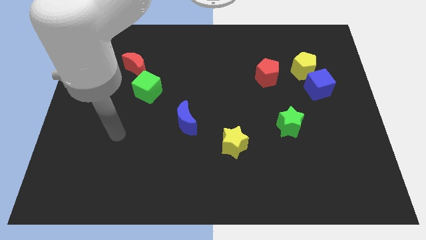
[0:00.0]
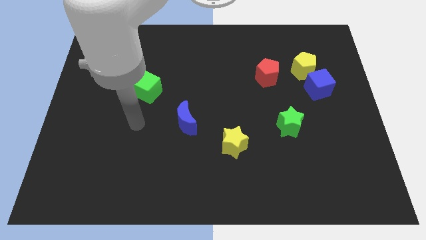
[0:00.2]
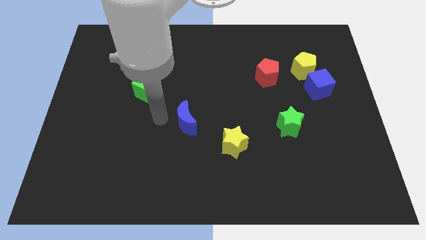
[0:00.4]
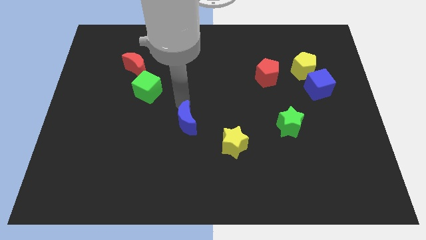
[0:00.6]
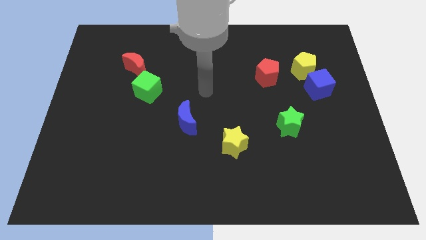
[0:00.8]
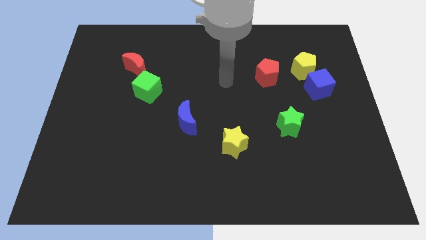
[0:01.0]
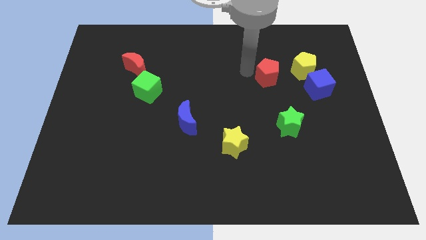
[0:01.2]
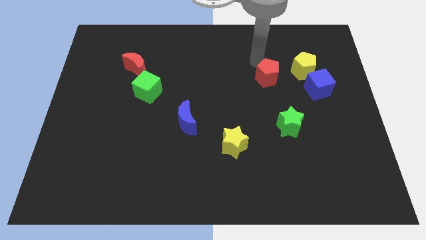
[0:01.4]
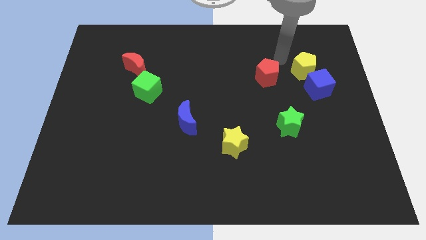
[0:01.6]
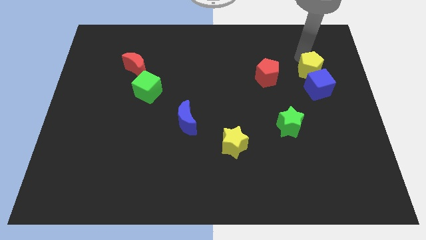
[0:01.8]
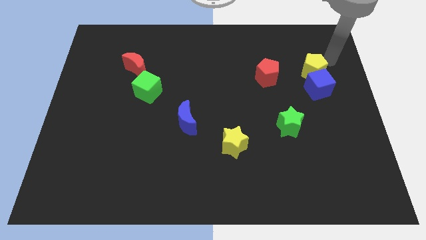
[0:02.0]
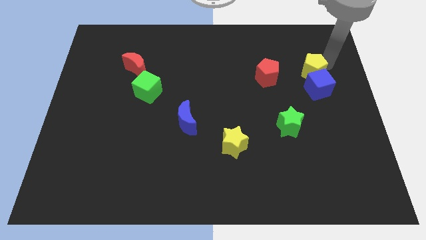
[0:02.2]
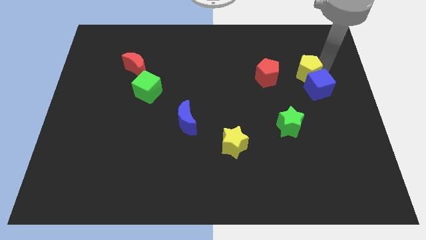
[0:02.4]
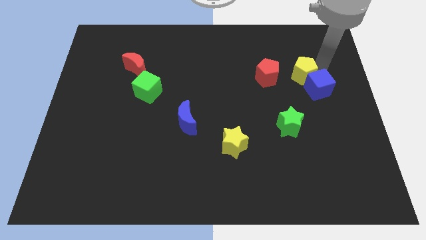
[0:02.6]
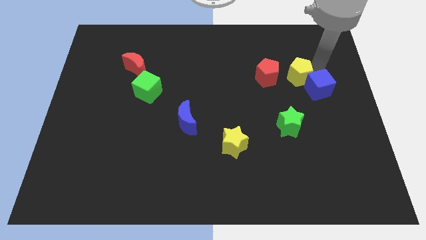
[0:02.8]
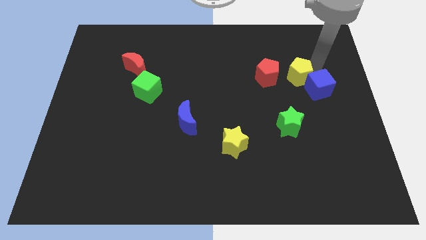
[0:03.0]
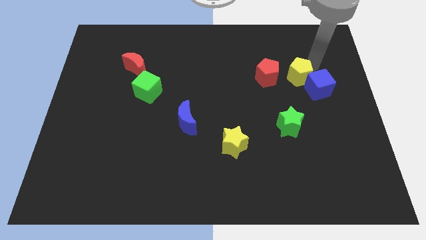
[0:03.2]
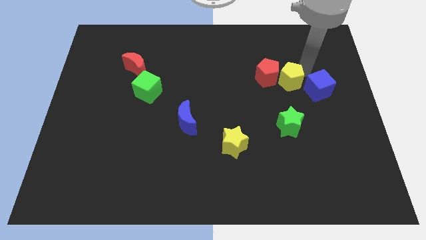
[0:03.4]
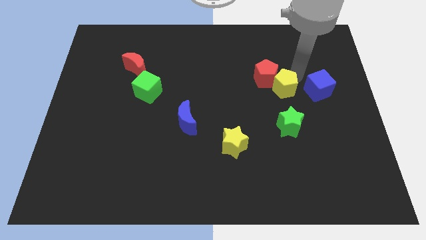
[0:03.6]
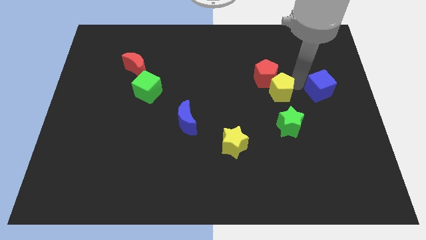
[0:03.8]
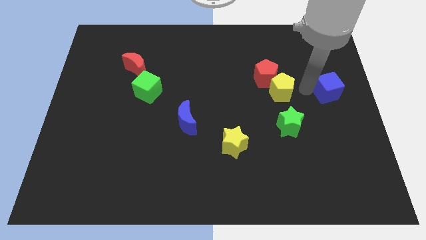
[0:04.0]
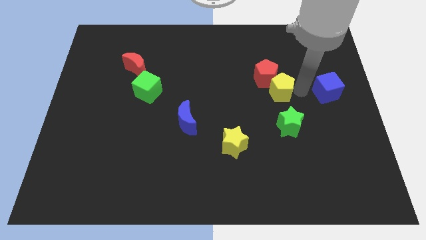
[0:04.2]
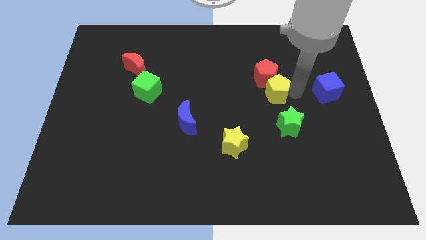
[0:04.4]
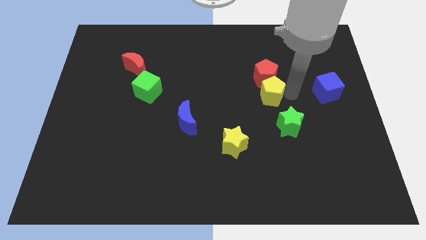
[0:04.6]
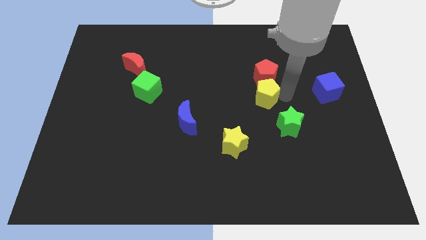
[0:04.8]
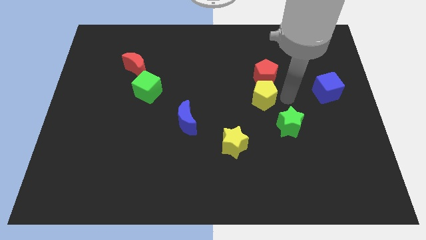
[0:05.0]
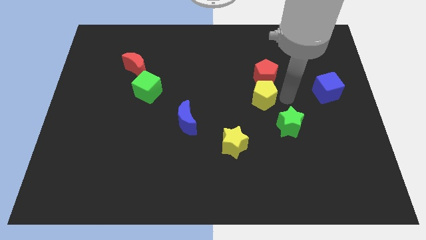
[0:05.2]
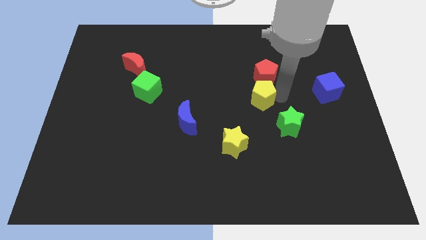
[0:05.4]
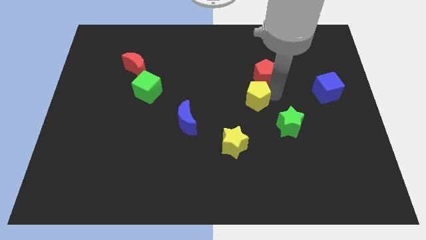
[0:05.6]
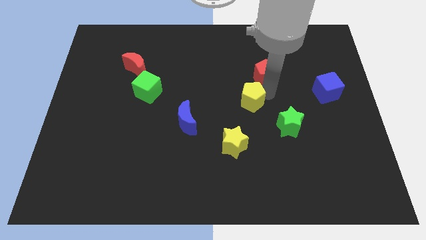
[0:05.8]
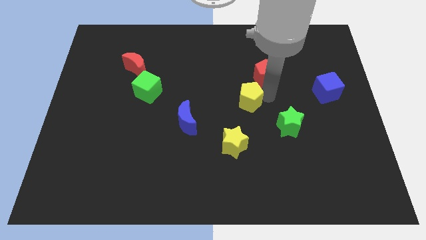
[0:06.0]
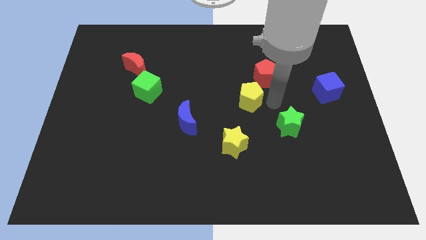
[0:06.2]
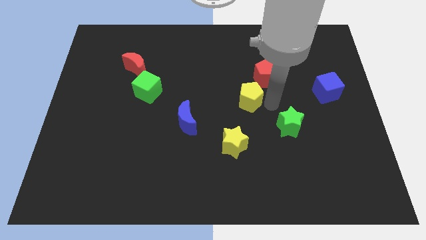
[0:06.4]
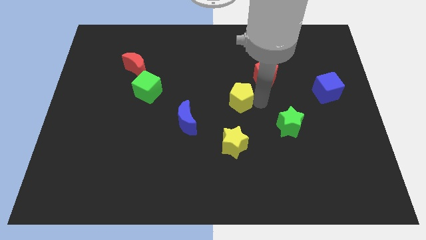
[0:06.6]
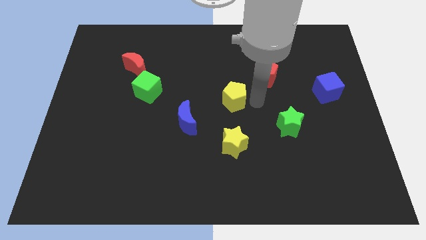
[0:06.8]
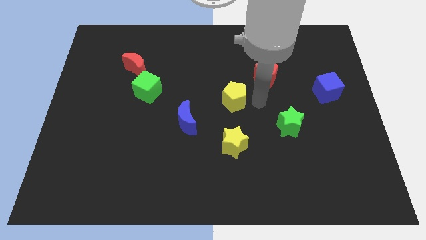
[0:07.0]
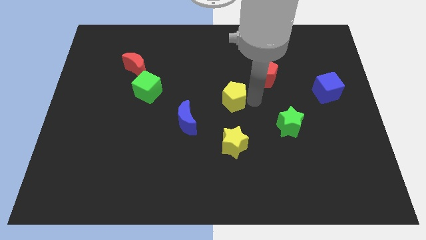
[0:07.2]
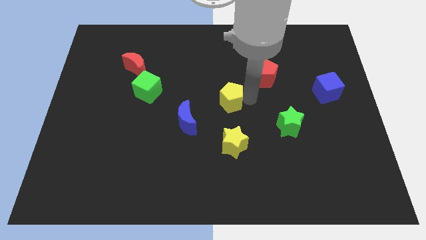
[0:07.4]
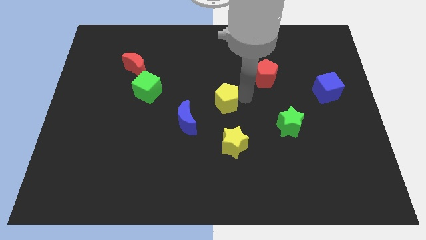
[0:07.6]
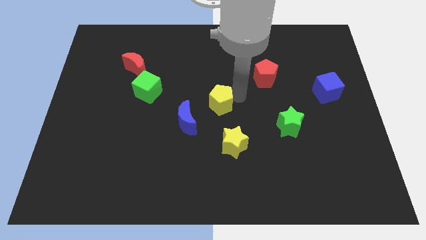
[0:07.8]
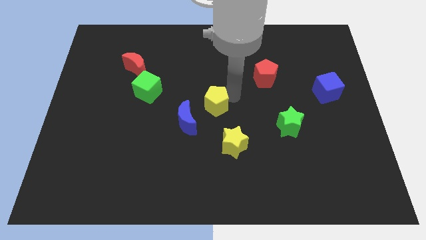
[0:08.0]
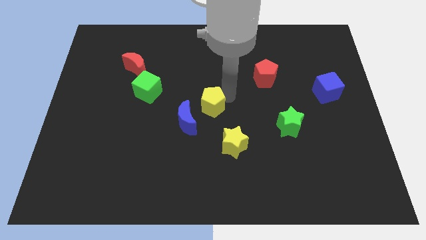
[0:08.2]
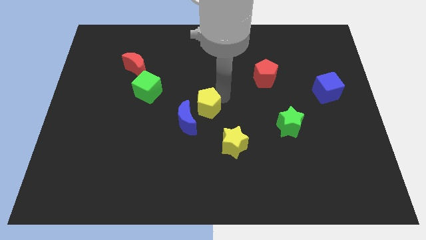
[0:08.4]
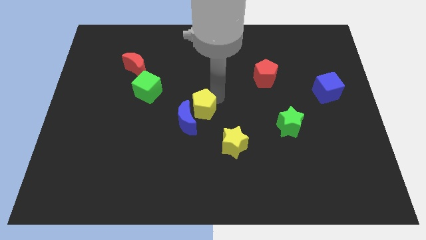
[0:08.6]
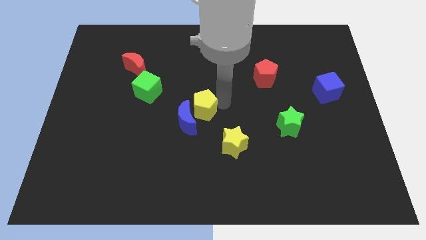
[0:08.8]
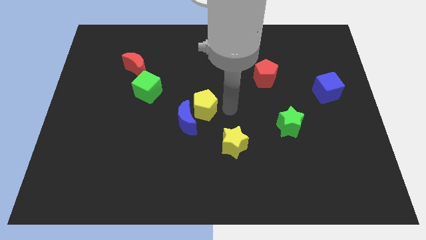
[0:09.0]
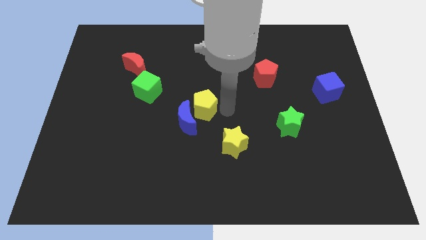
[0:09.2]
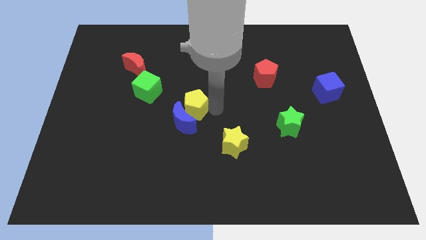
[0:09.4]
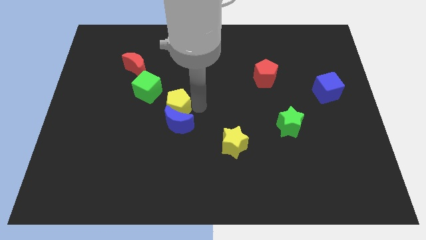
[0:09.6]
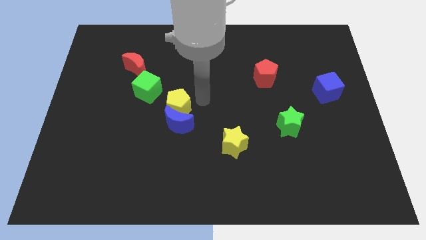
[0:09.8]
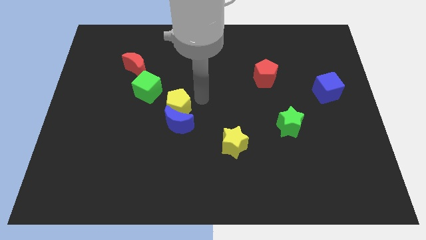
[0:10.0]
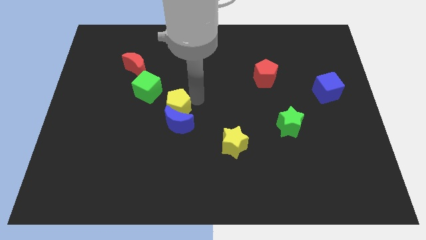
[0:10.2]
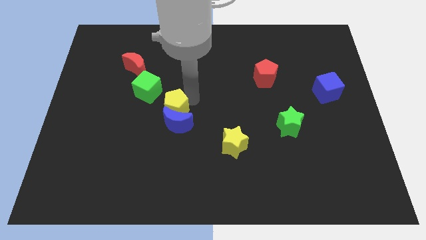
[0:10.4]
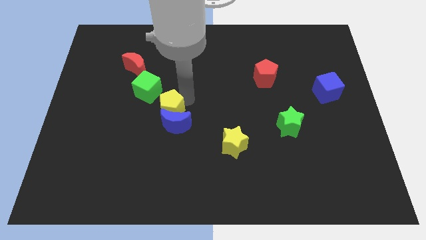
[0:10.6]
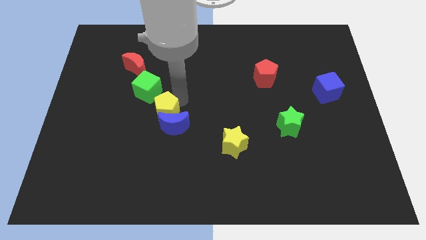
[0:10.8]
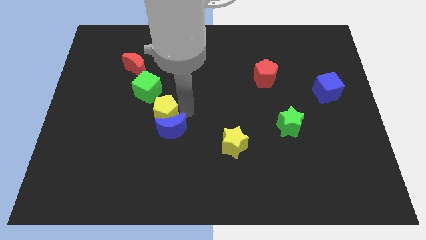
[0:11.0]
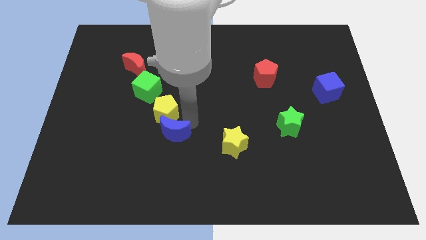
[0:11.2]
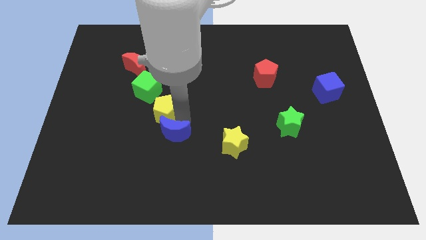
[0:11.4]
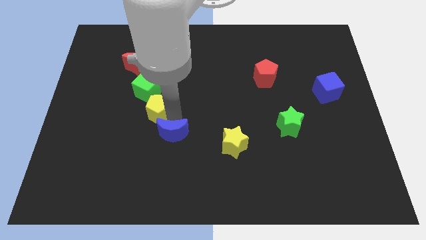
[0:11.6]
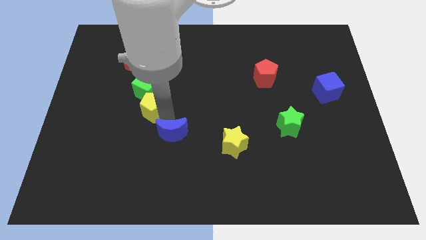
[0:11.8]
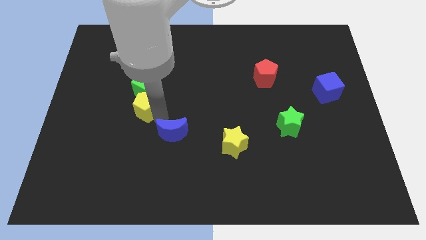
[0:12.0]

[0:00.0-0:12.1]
move the yellow pentagon to the bottom of the red moon

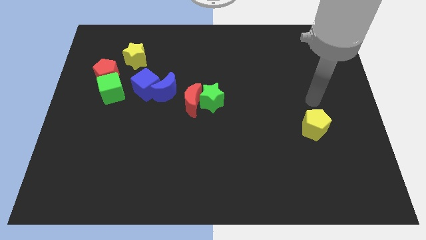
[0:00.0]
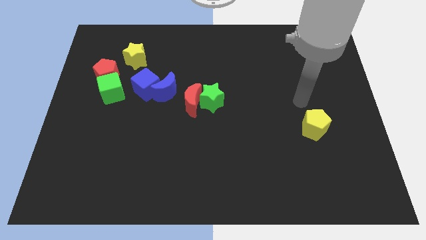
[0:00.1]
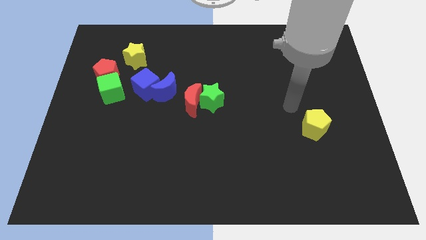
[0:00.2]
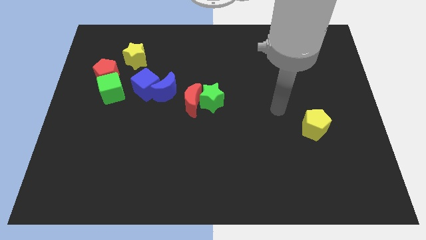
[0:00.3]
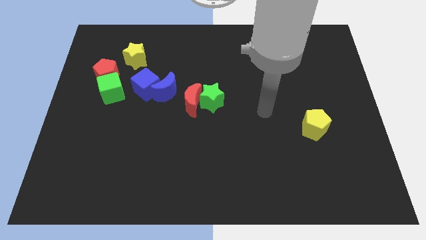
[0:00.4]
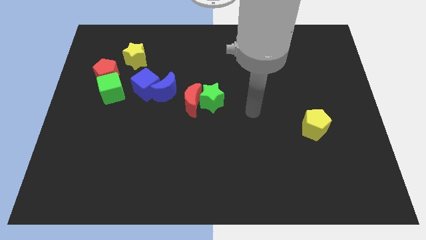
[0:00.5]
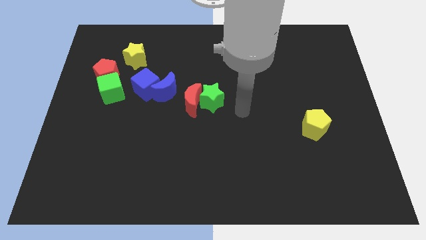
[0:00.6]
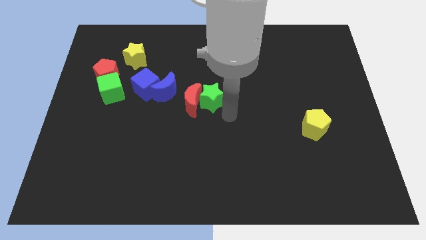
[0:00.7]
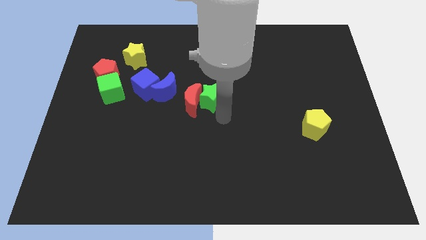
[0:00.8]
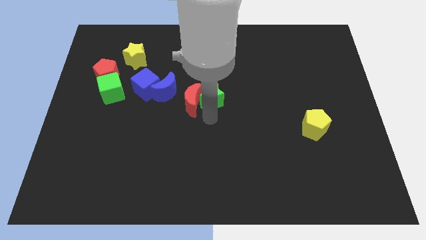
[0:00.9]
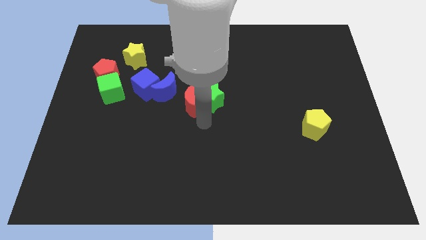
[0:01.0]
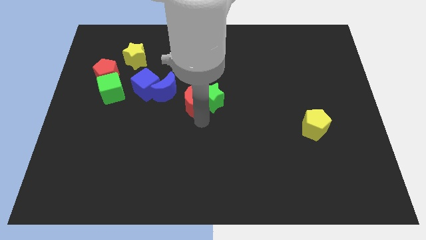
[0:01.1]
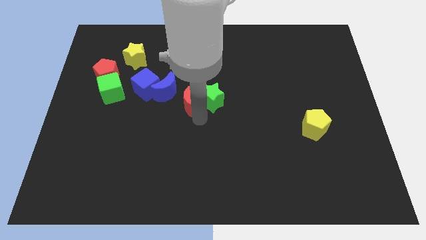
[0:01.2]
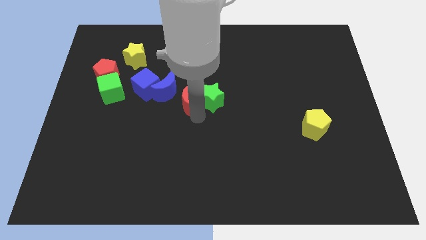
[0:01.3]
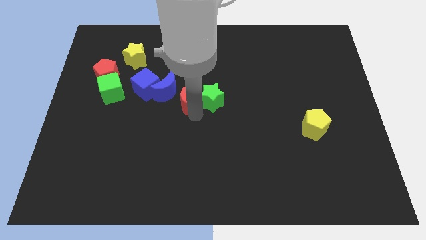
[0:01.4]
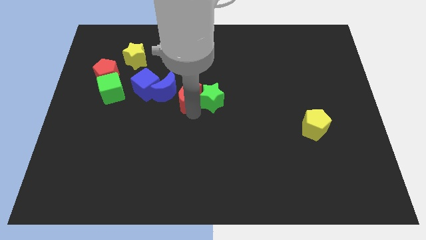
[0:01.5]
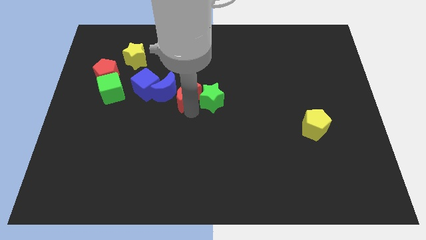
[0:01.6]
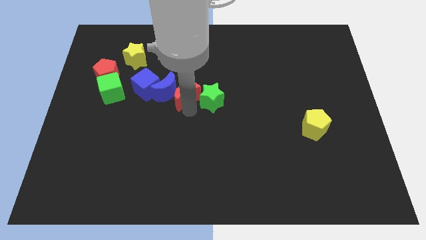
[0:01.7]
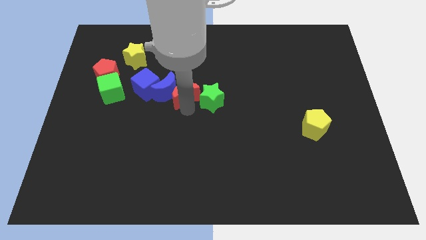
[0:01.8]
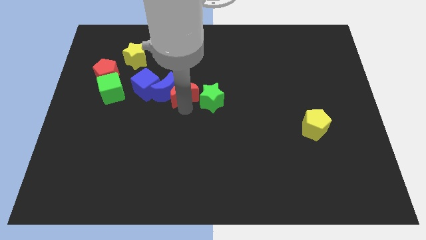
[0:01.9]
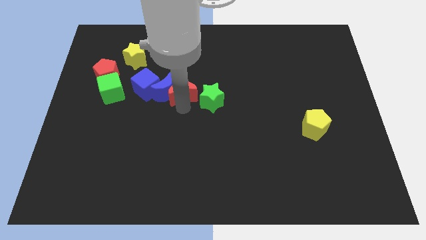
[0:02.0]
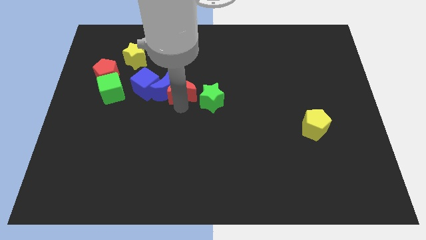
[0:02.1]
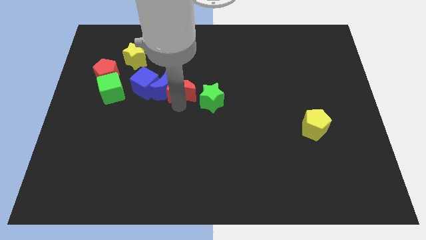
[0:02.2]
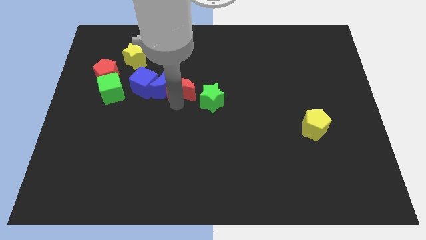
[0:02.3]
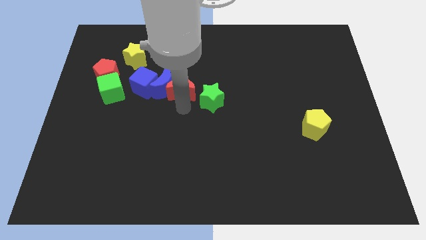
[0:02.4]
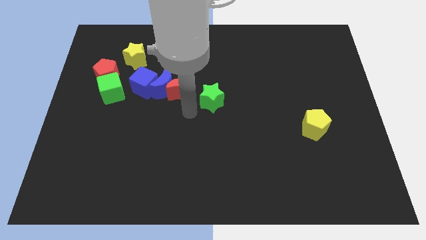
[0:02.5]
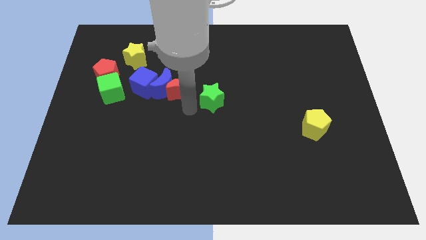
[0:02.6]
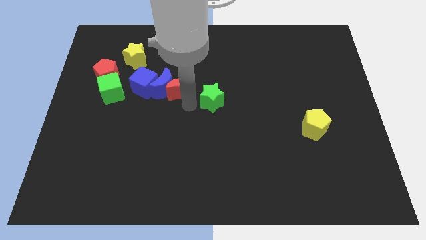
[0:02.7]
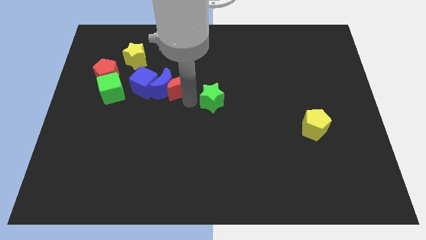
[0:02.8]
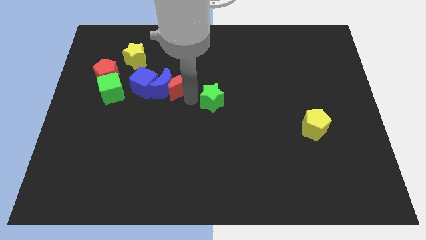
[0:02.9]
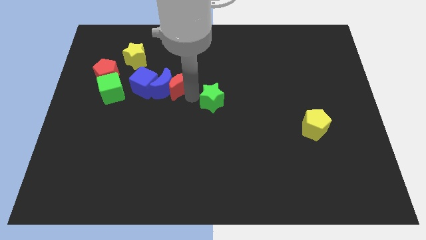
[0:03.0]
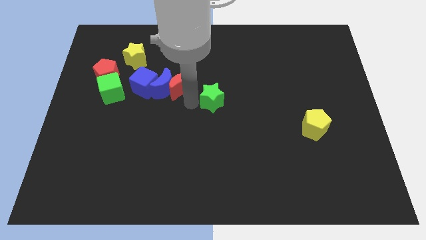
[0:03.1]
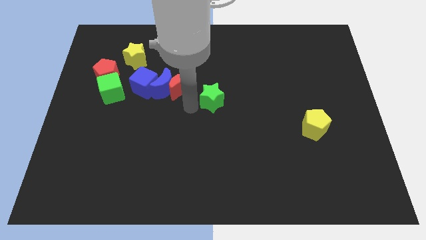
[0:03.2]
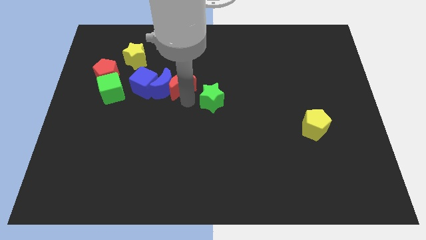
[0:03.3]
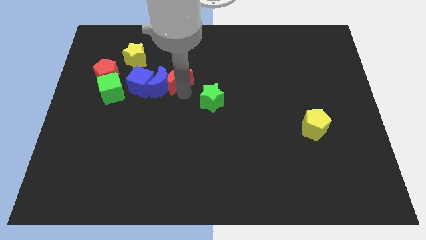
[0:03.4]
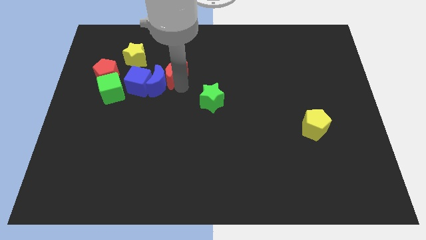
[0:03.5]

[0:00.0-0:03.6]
slide the red moon to the top side of the blue moon
